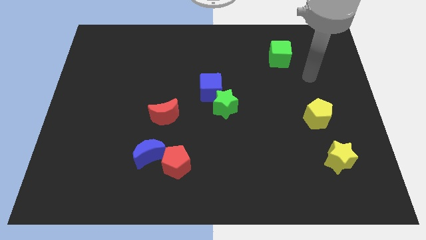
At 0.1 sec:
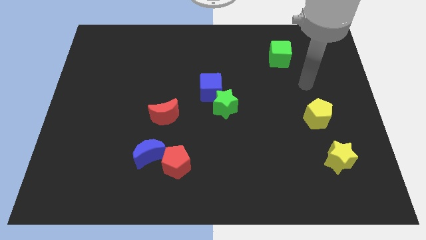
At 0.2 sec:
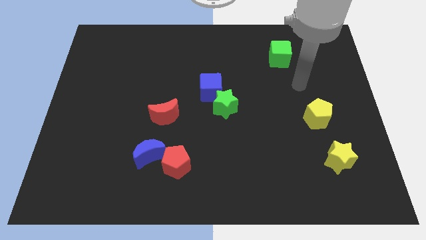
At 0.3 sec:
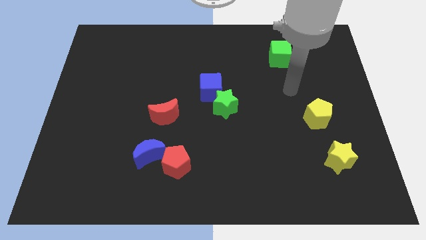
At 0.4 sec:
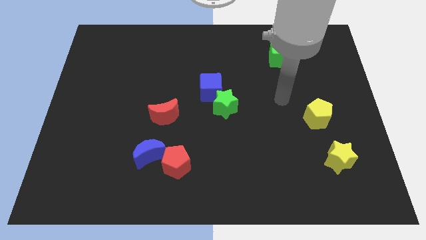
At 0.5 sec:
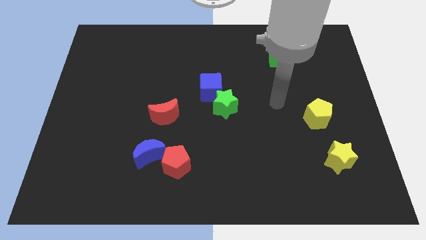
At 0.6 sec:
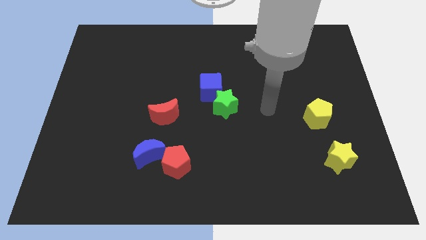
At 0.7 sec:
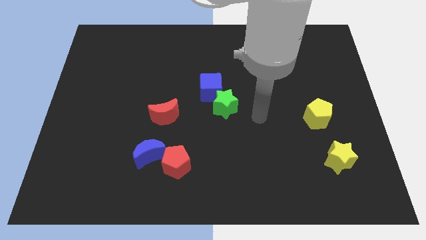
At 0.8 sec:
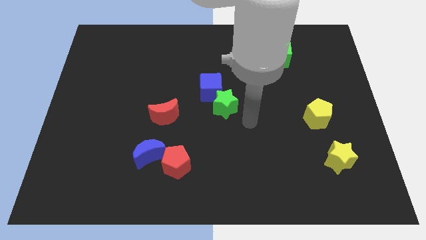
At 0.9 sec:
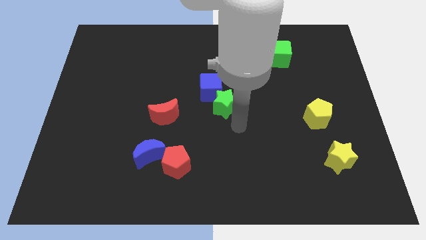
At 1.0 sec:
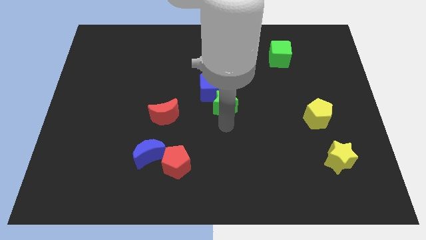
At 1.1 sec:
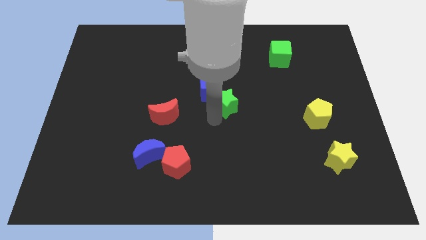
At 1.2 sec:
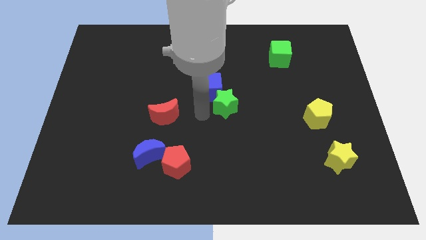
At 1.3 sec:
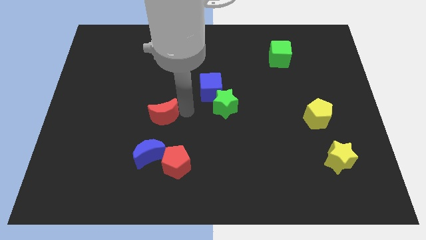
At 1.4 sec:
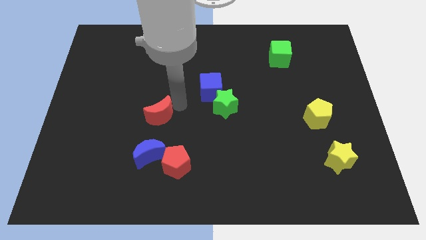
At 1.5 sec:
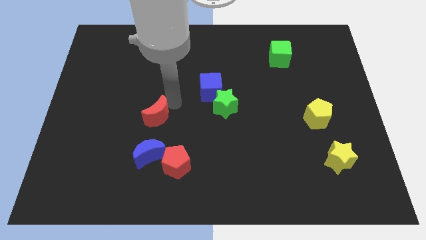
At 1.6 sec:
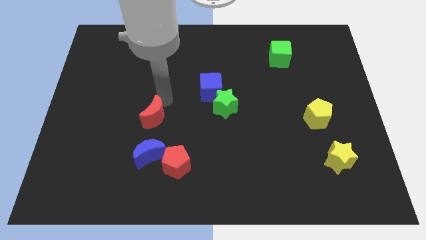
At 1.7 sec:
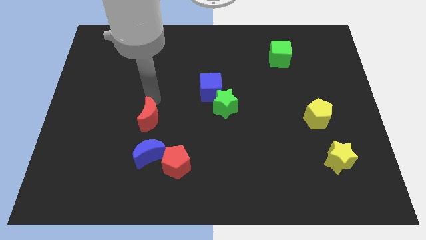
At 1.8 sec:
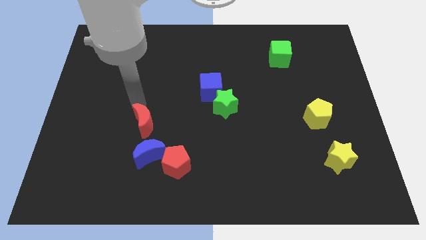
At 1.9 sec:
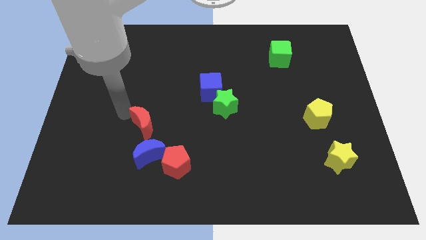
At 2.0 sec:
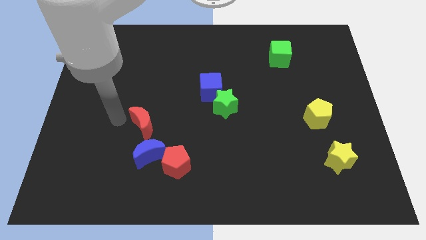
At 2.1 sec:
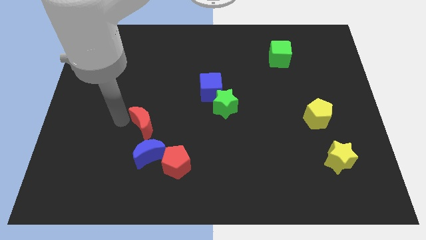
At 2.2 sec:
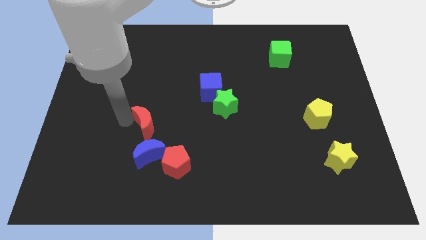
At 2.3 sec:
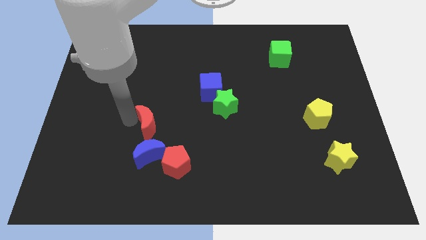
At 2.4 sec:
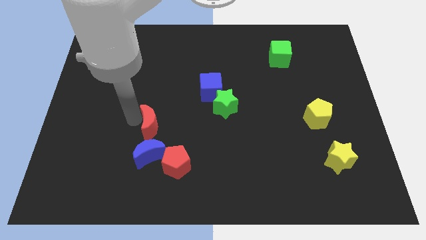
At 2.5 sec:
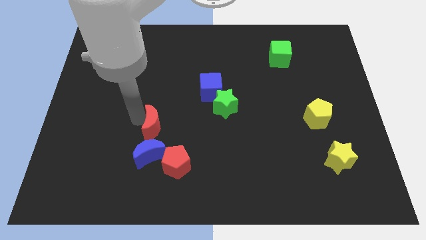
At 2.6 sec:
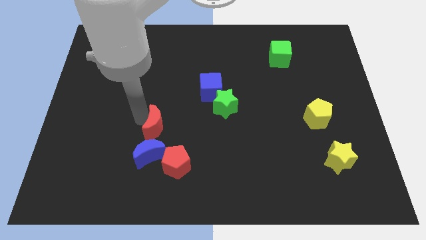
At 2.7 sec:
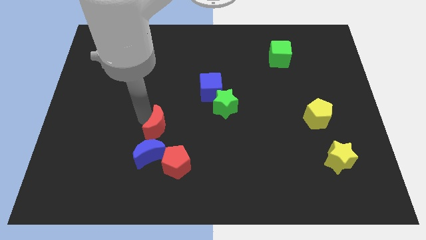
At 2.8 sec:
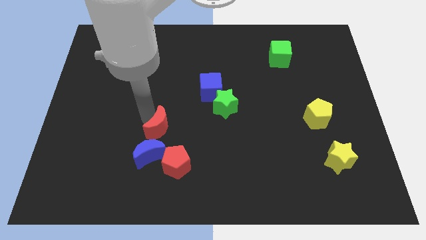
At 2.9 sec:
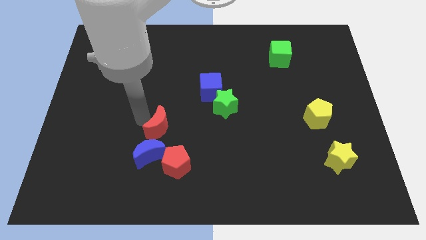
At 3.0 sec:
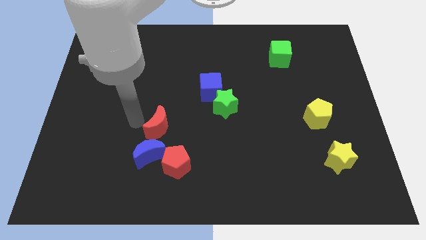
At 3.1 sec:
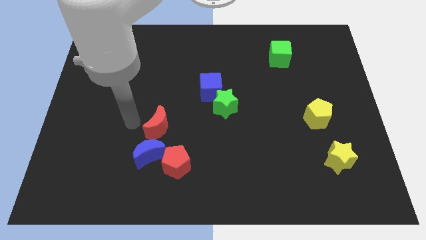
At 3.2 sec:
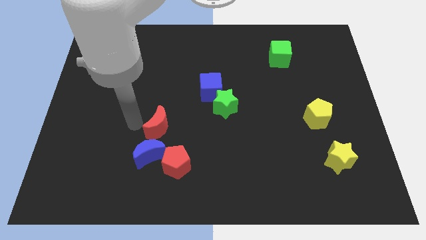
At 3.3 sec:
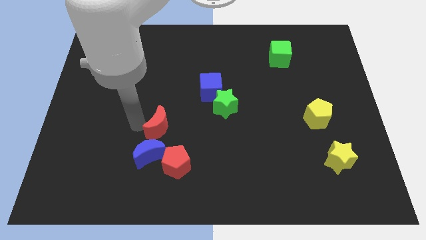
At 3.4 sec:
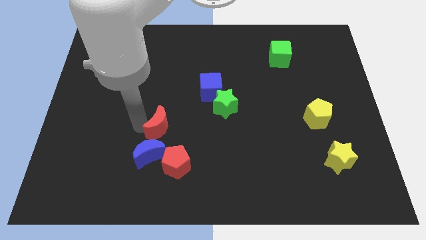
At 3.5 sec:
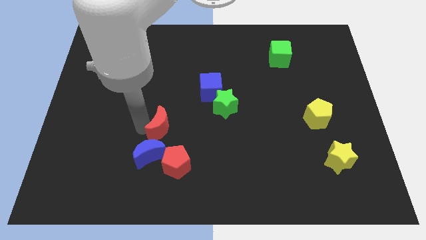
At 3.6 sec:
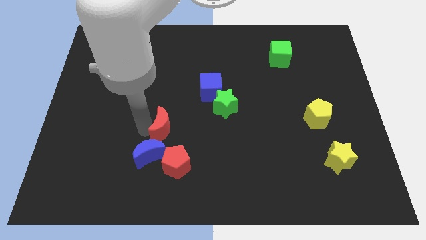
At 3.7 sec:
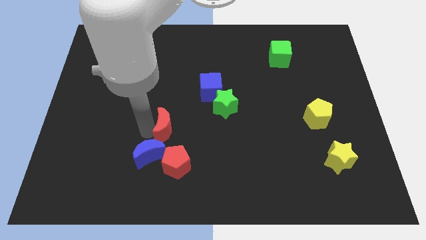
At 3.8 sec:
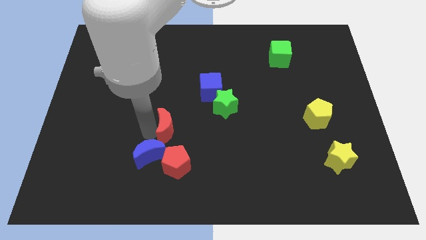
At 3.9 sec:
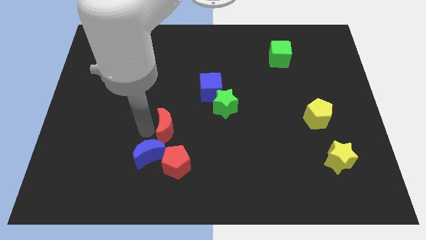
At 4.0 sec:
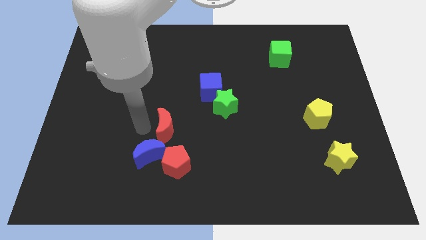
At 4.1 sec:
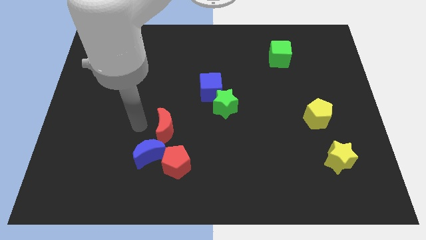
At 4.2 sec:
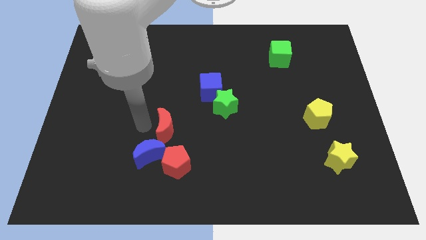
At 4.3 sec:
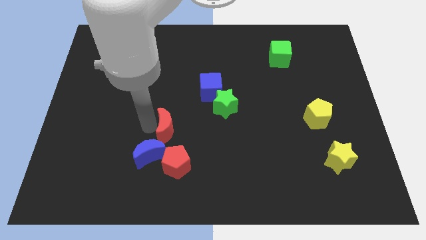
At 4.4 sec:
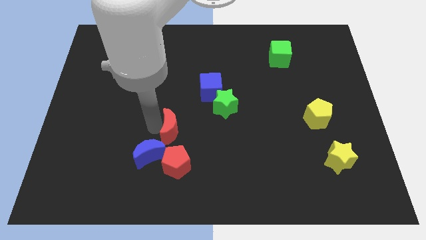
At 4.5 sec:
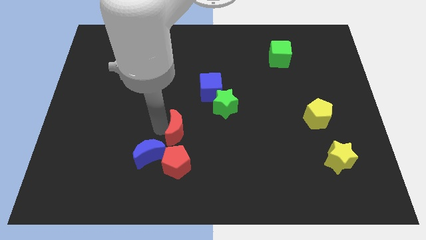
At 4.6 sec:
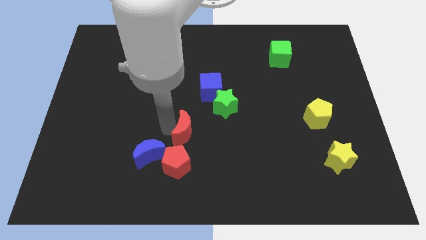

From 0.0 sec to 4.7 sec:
push the red moon to the top right of the red pentagon

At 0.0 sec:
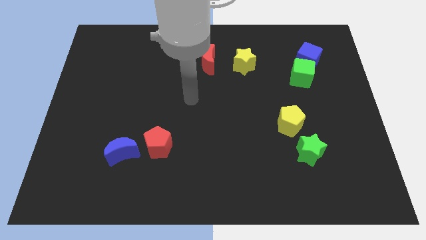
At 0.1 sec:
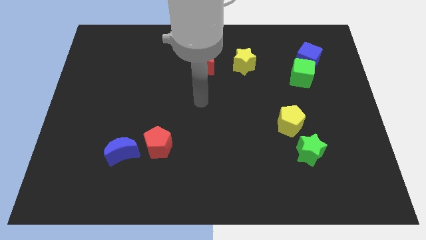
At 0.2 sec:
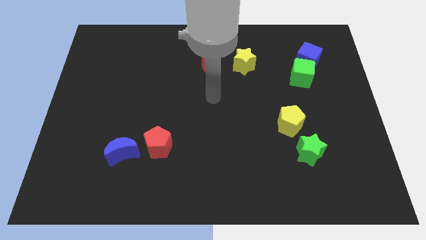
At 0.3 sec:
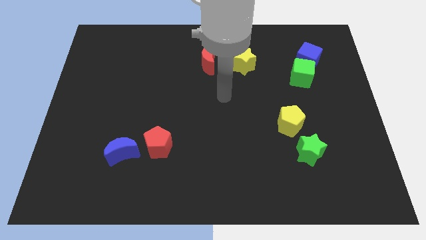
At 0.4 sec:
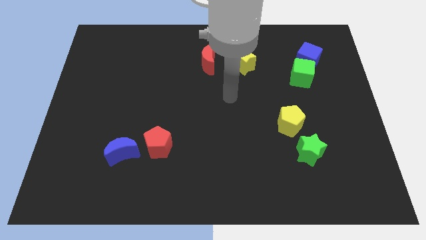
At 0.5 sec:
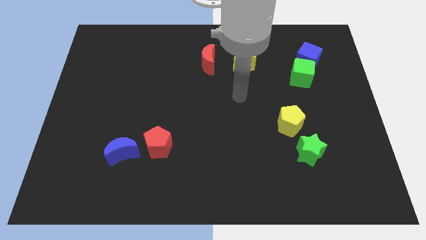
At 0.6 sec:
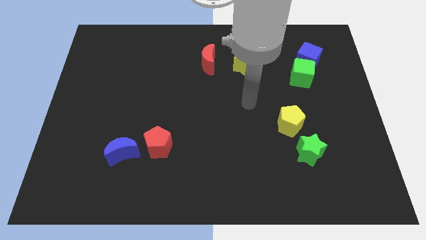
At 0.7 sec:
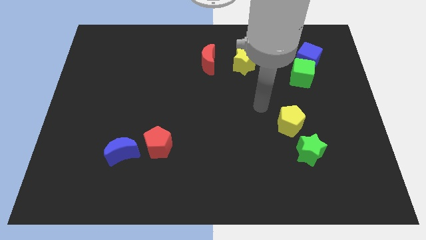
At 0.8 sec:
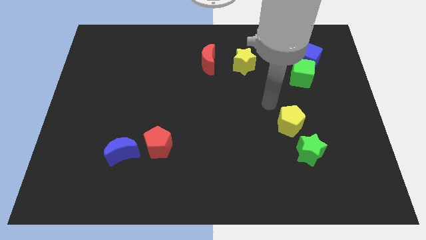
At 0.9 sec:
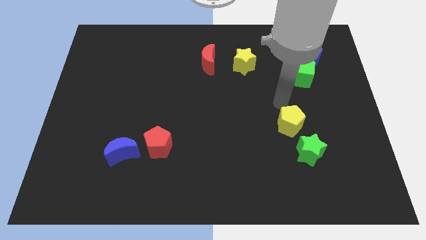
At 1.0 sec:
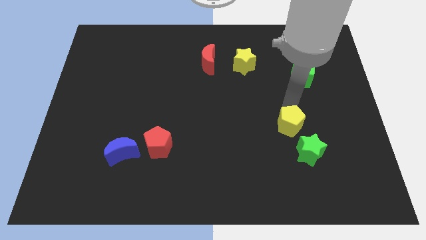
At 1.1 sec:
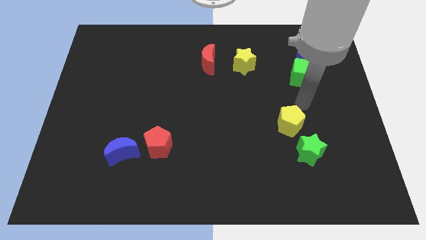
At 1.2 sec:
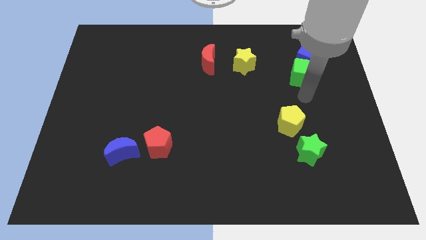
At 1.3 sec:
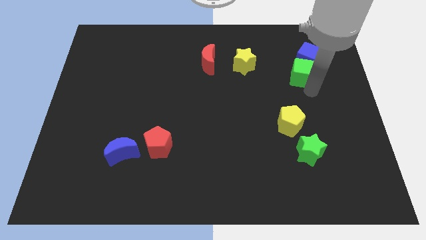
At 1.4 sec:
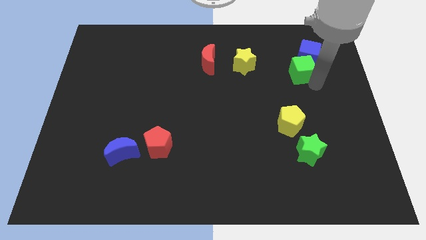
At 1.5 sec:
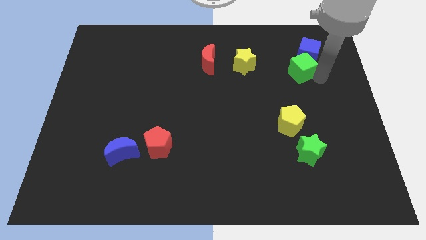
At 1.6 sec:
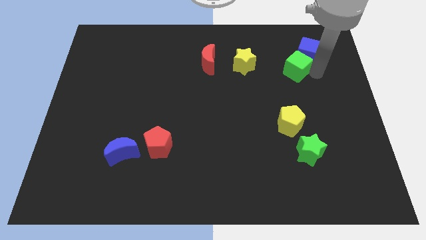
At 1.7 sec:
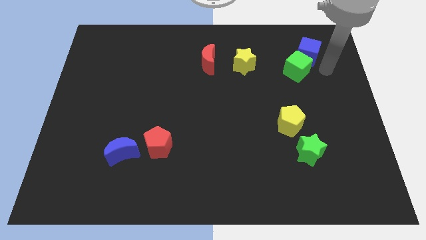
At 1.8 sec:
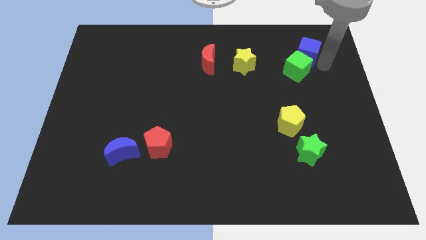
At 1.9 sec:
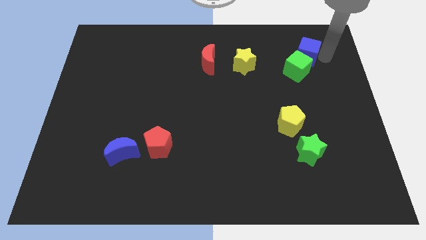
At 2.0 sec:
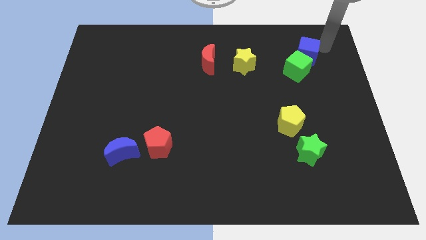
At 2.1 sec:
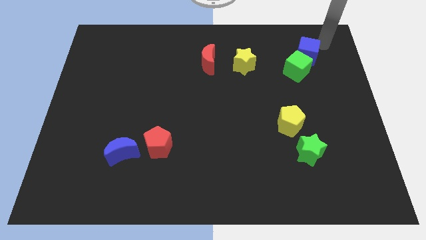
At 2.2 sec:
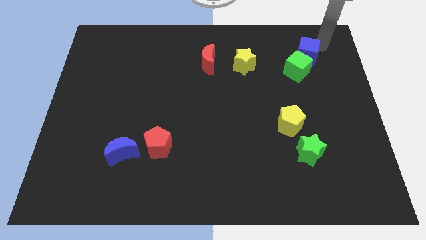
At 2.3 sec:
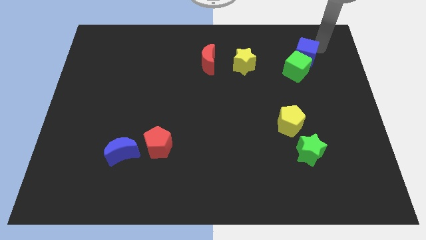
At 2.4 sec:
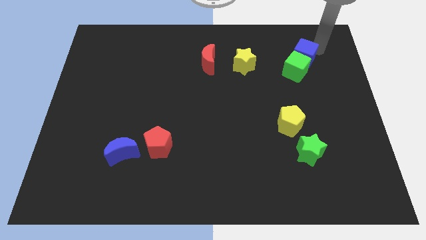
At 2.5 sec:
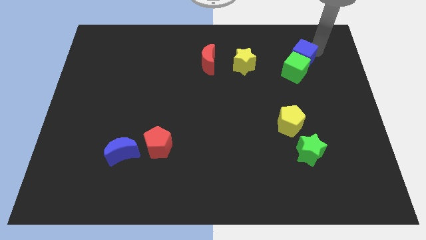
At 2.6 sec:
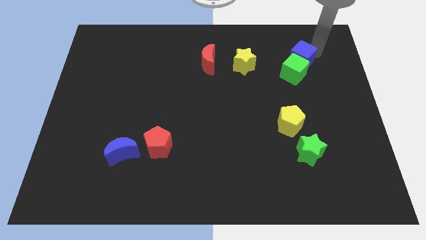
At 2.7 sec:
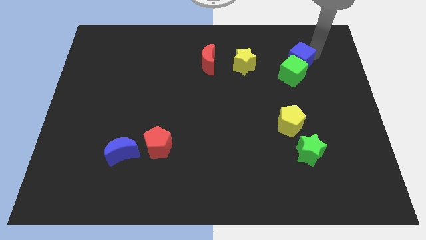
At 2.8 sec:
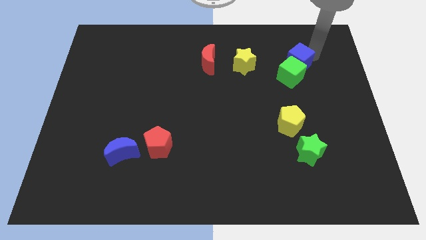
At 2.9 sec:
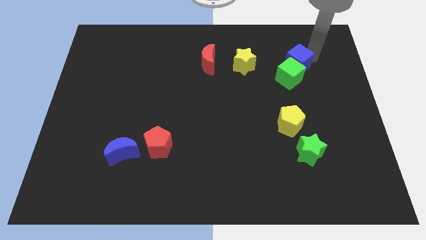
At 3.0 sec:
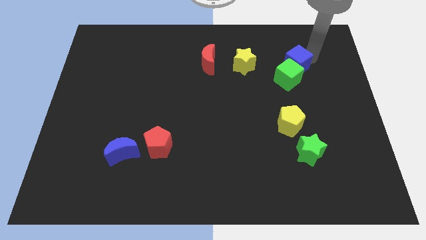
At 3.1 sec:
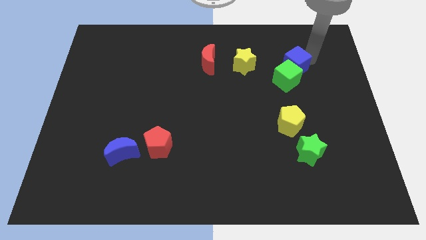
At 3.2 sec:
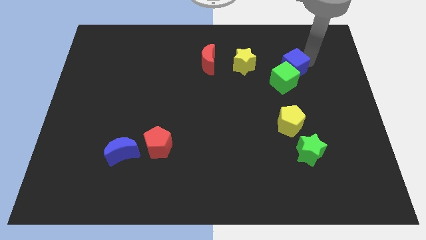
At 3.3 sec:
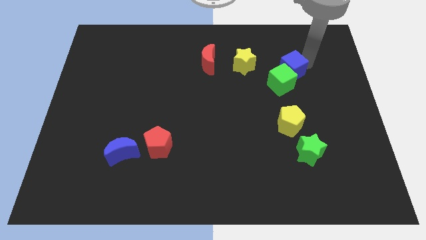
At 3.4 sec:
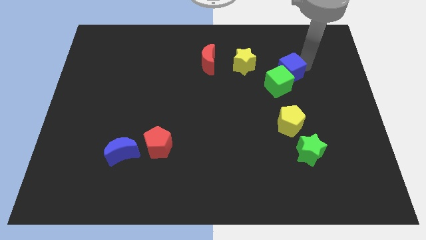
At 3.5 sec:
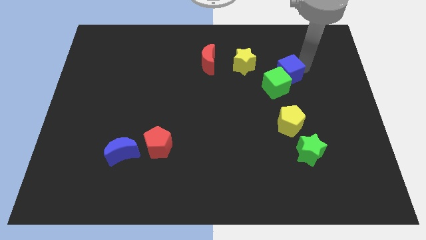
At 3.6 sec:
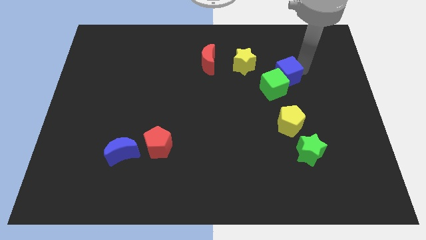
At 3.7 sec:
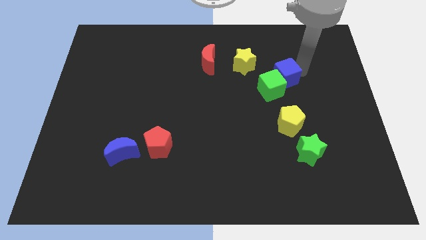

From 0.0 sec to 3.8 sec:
move the blue cube to the bottom right of the yellow star
